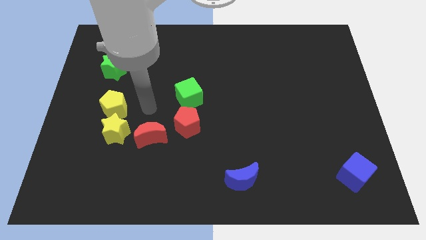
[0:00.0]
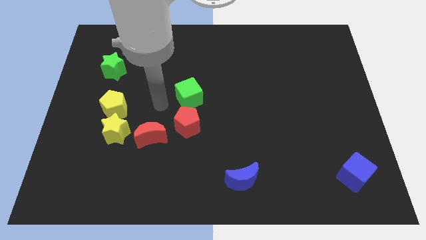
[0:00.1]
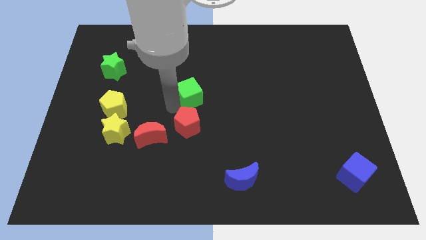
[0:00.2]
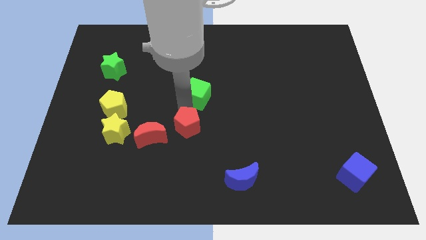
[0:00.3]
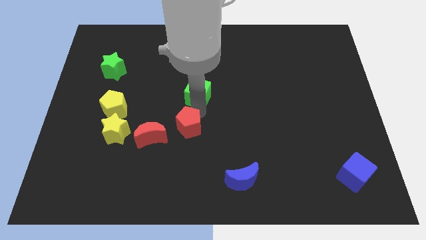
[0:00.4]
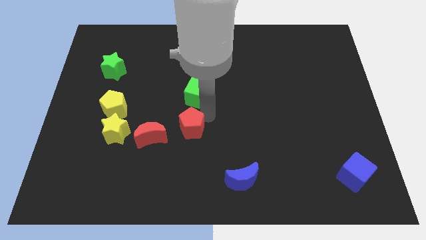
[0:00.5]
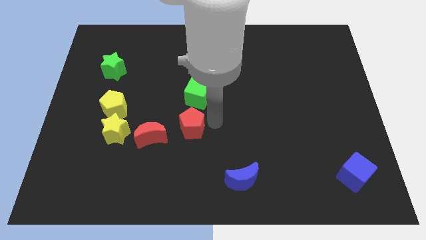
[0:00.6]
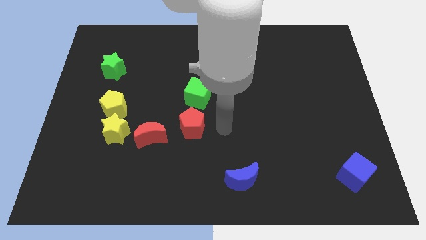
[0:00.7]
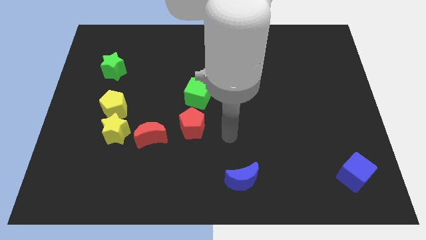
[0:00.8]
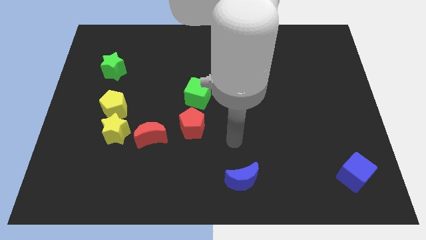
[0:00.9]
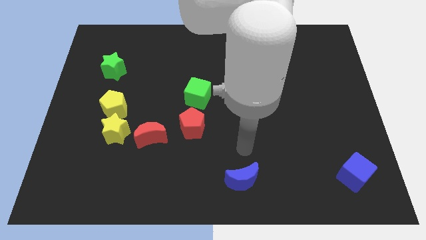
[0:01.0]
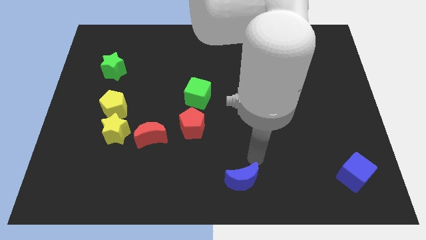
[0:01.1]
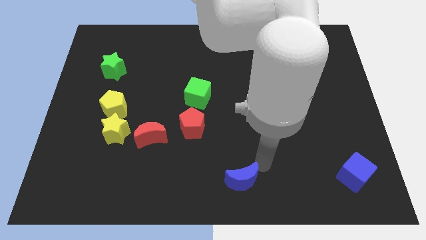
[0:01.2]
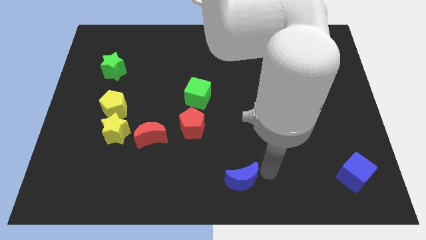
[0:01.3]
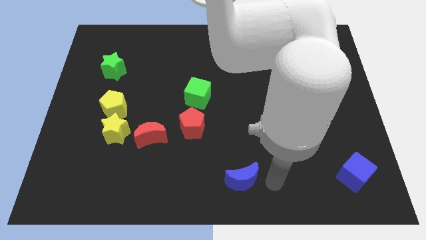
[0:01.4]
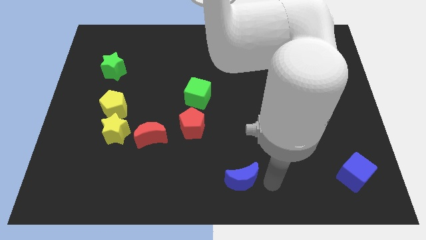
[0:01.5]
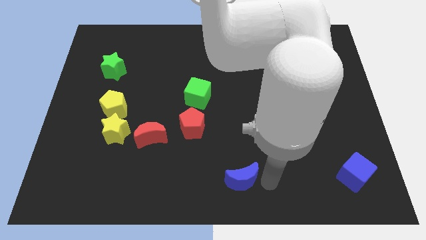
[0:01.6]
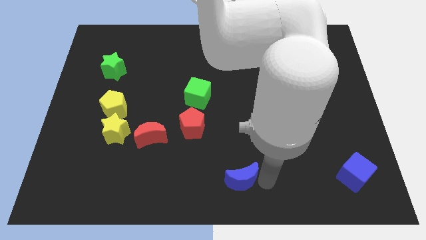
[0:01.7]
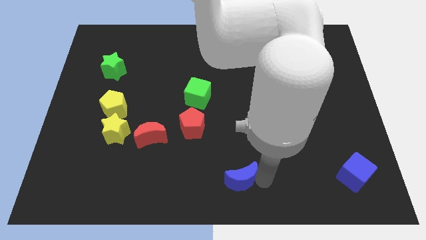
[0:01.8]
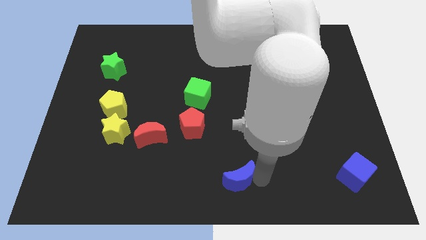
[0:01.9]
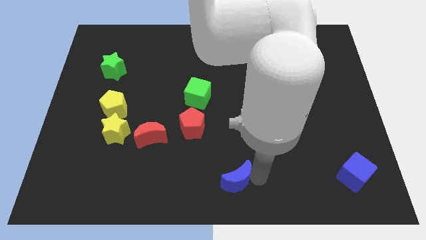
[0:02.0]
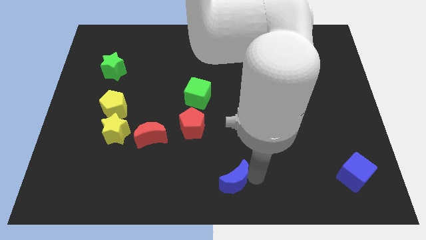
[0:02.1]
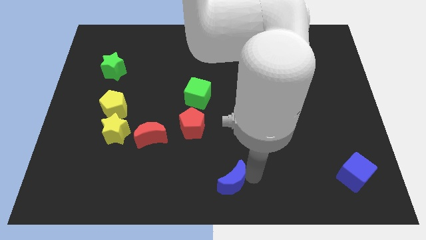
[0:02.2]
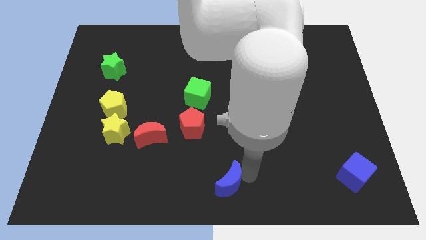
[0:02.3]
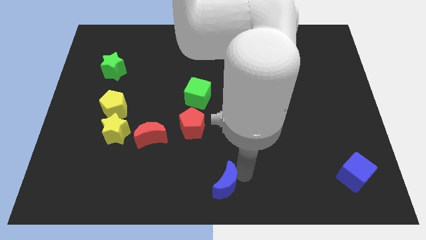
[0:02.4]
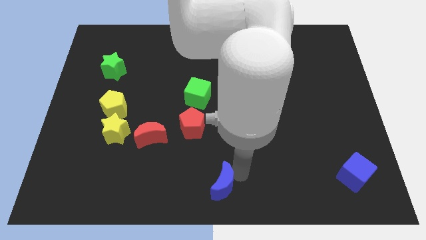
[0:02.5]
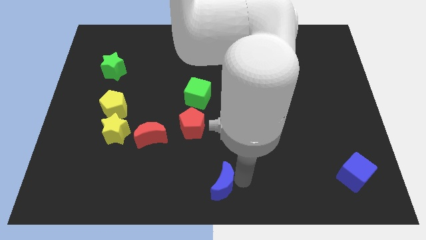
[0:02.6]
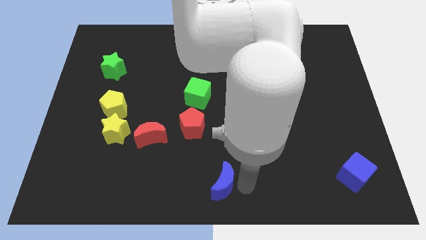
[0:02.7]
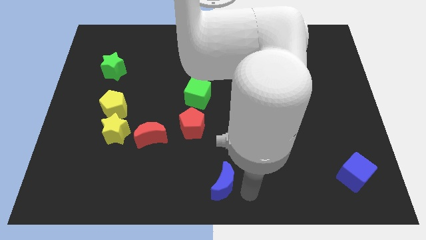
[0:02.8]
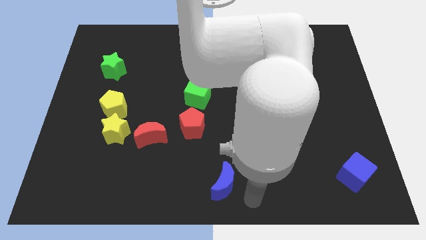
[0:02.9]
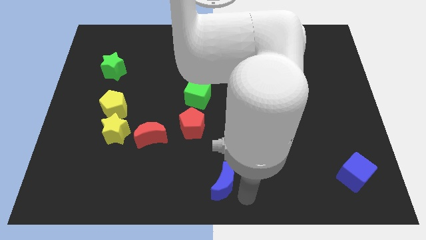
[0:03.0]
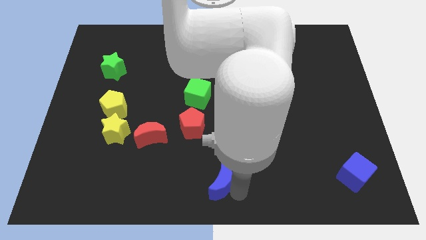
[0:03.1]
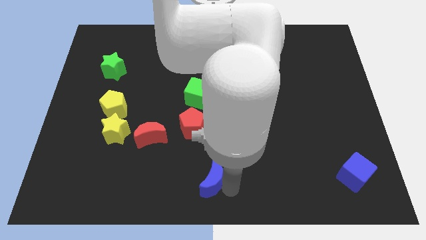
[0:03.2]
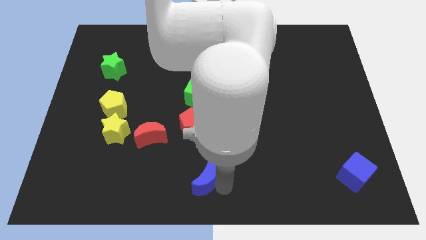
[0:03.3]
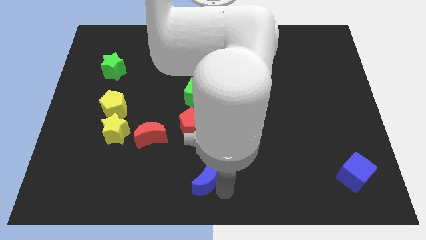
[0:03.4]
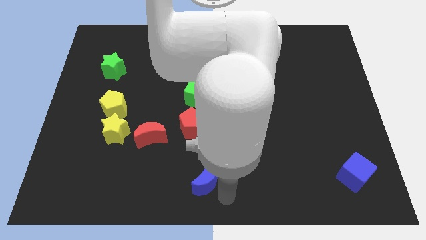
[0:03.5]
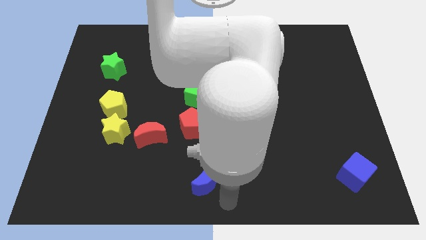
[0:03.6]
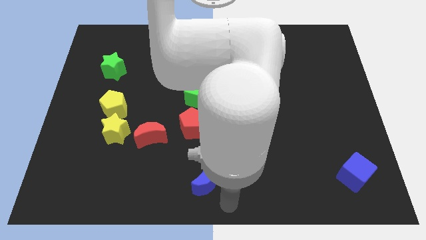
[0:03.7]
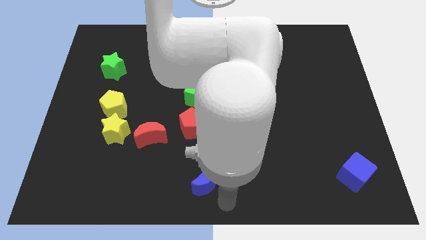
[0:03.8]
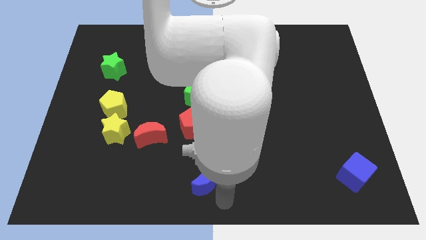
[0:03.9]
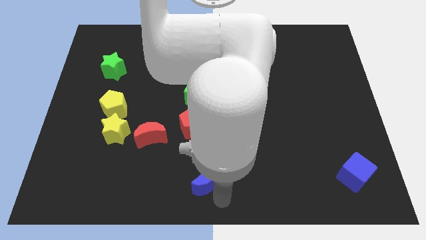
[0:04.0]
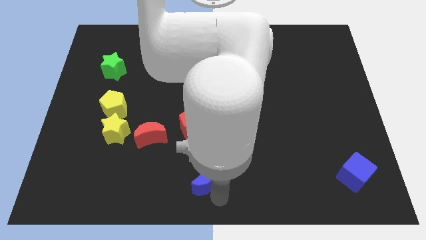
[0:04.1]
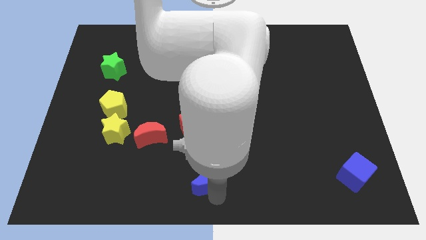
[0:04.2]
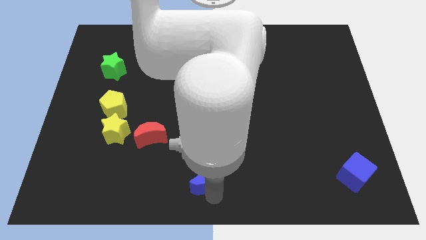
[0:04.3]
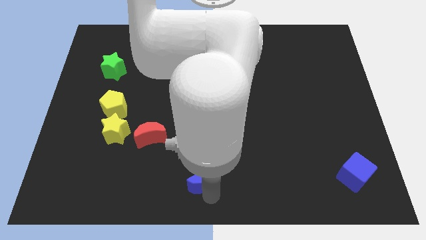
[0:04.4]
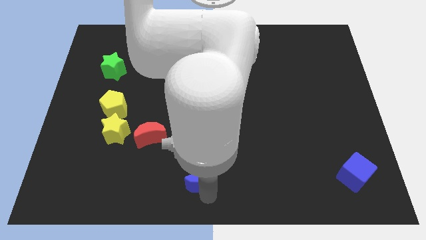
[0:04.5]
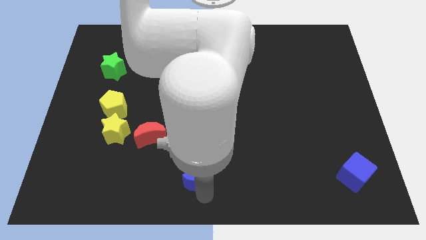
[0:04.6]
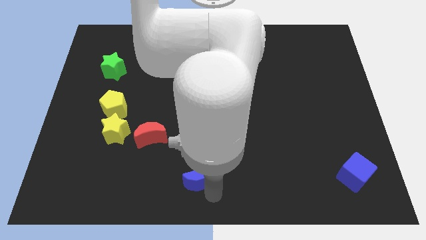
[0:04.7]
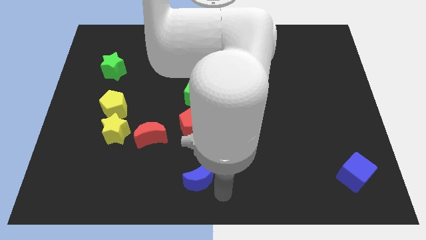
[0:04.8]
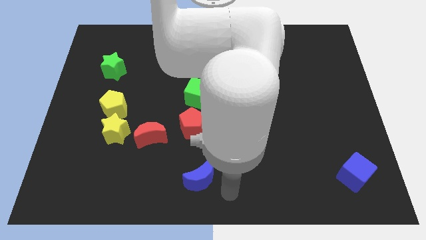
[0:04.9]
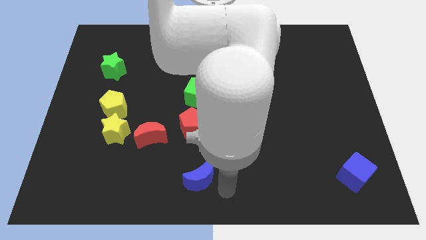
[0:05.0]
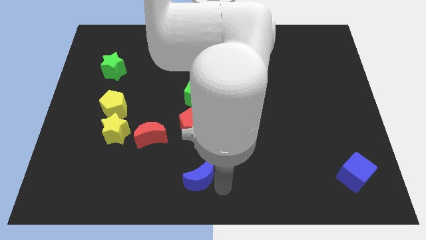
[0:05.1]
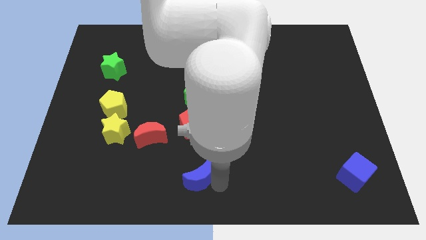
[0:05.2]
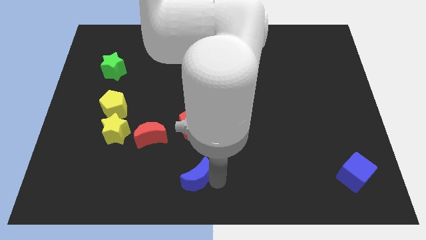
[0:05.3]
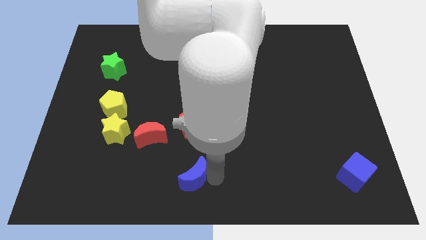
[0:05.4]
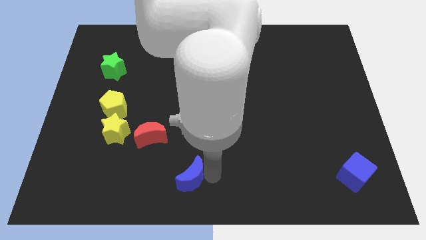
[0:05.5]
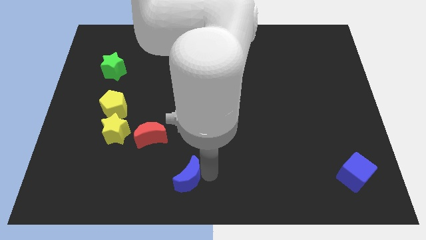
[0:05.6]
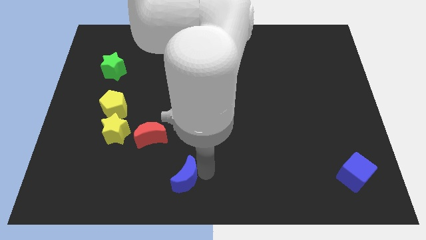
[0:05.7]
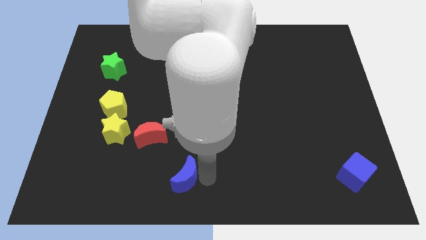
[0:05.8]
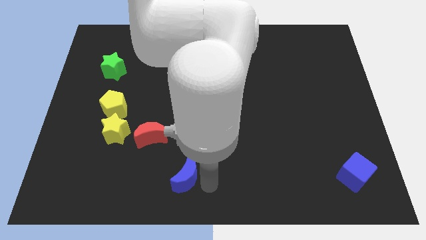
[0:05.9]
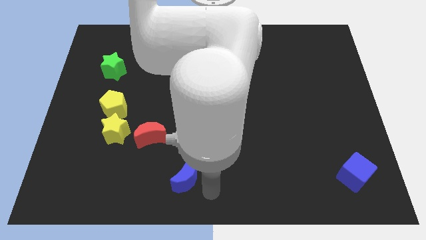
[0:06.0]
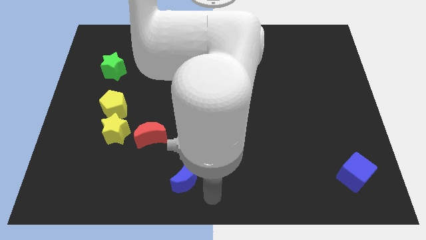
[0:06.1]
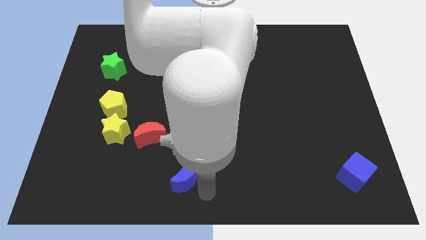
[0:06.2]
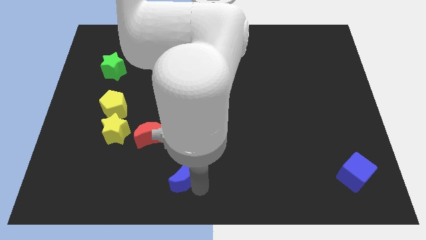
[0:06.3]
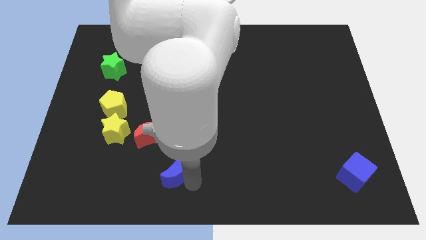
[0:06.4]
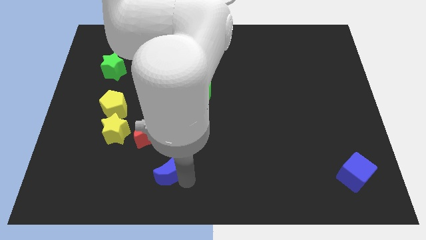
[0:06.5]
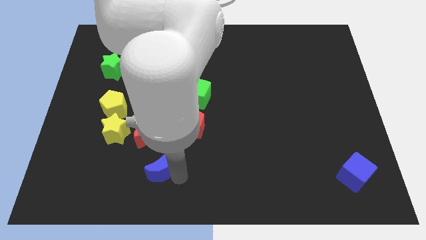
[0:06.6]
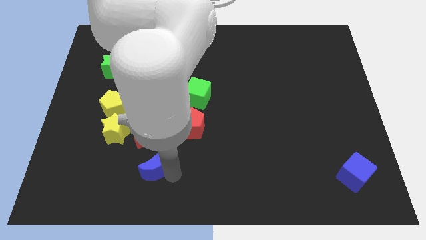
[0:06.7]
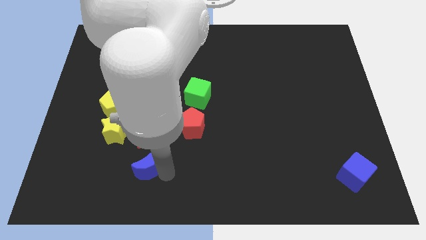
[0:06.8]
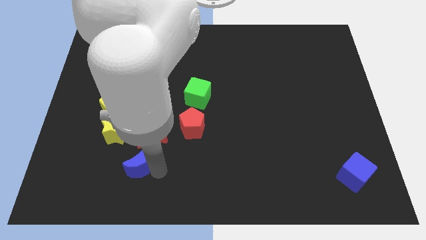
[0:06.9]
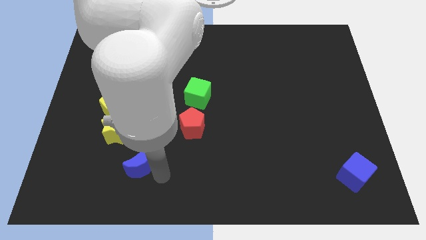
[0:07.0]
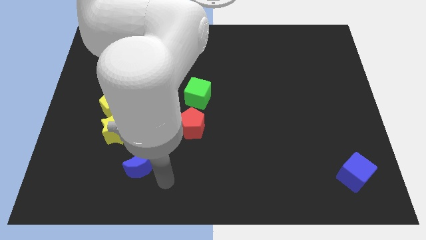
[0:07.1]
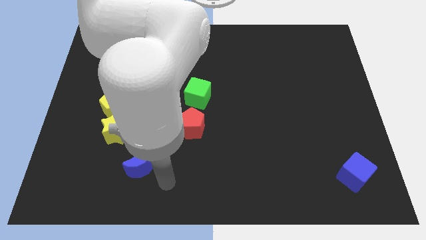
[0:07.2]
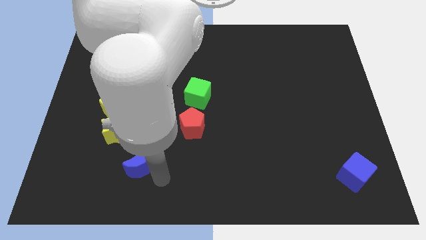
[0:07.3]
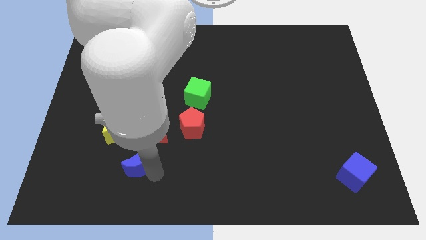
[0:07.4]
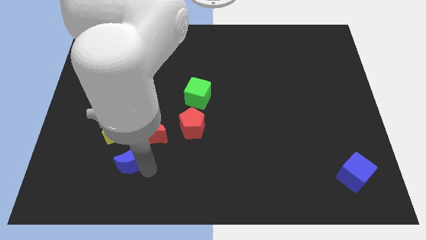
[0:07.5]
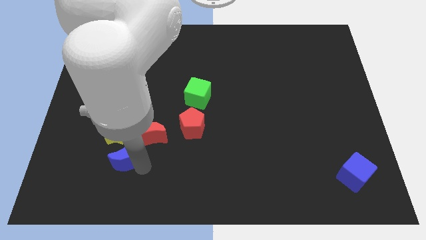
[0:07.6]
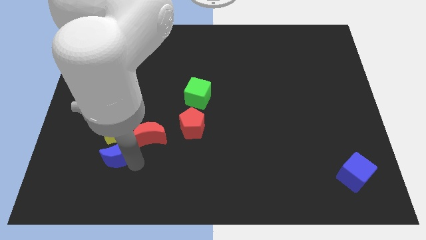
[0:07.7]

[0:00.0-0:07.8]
move the blue moon below the yellow pentagon
